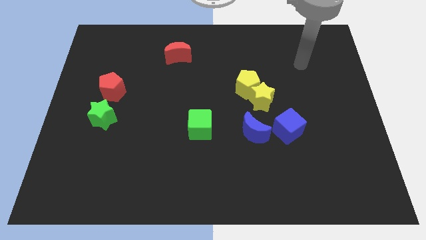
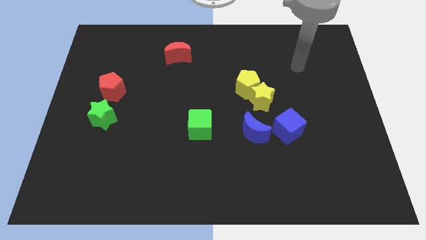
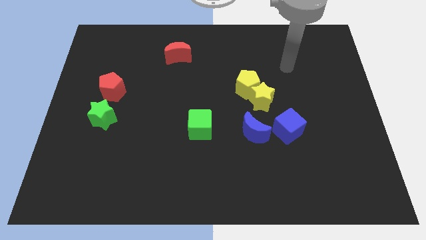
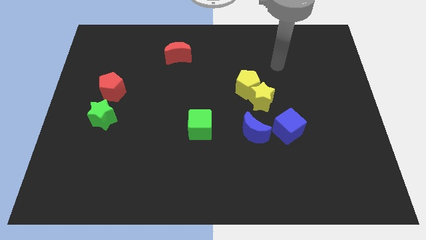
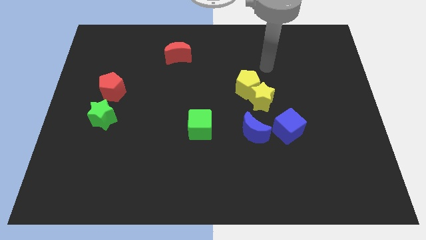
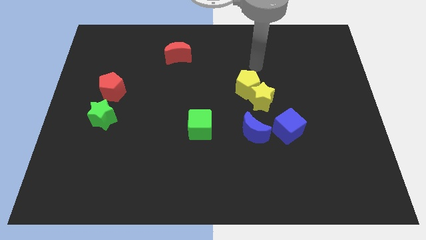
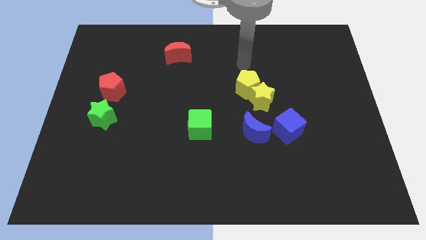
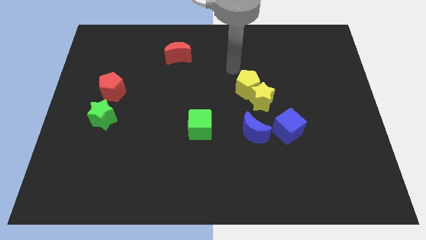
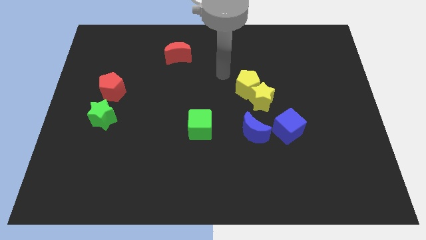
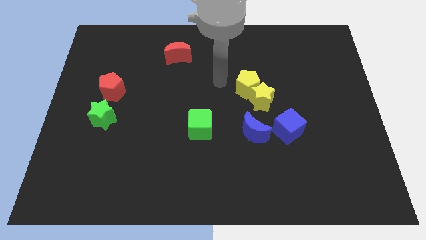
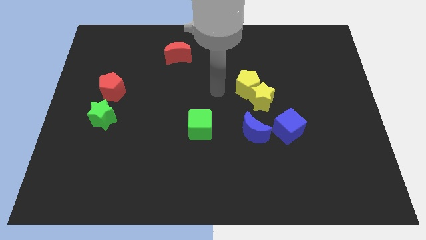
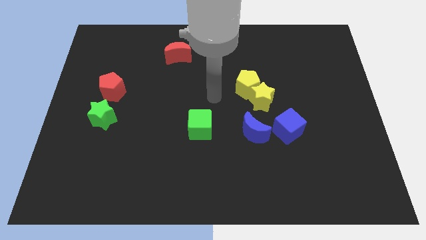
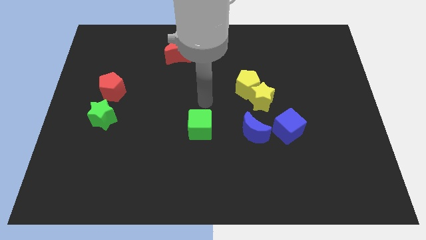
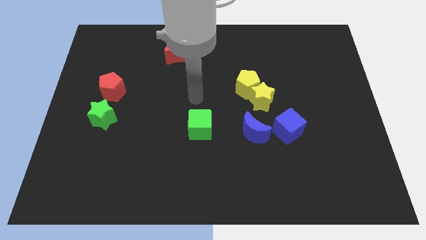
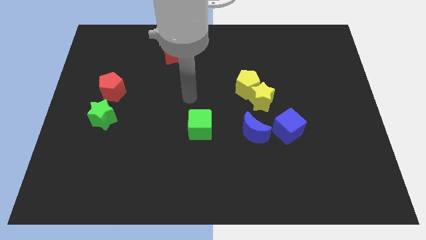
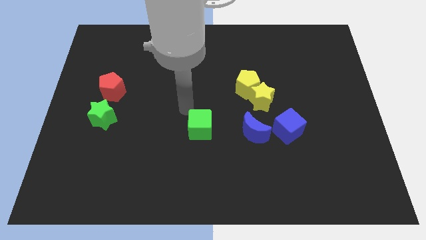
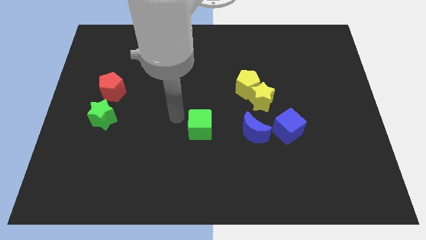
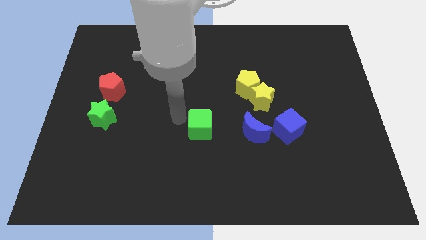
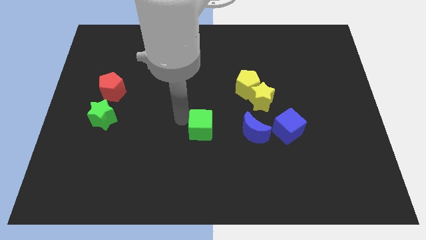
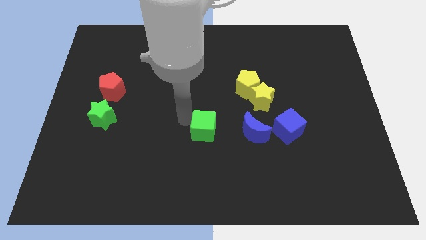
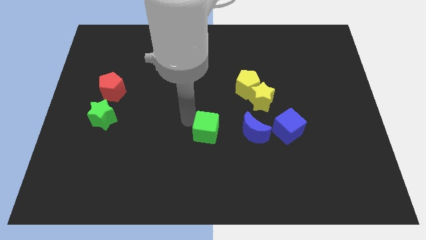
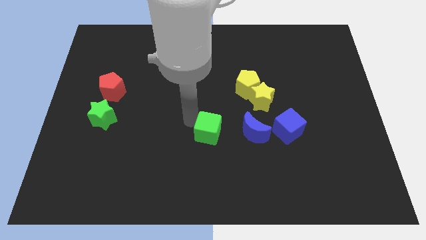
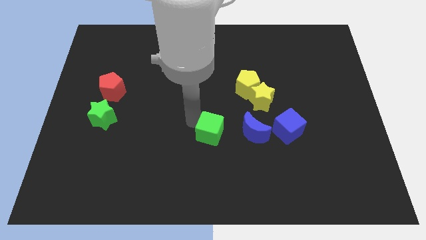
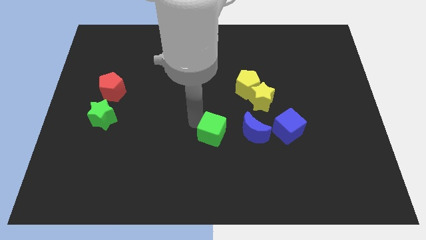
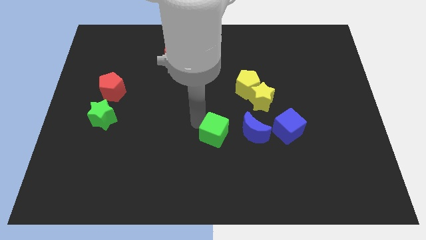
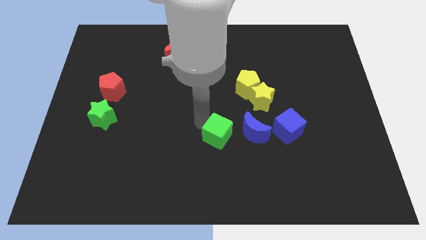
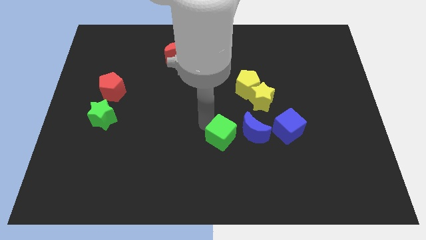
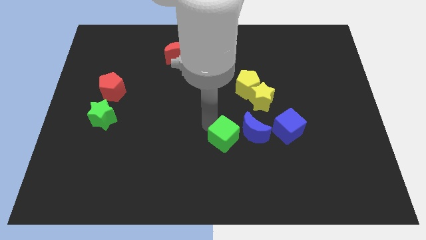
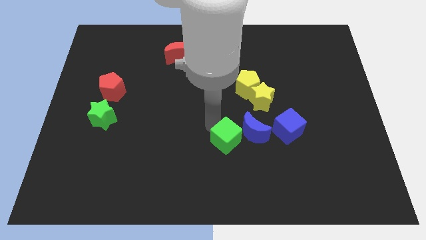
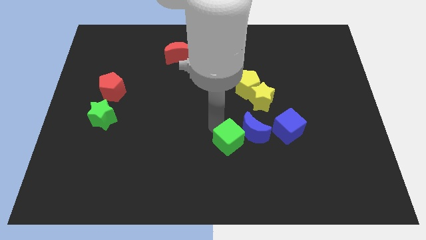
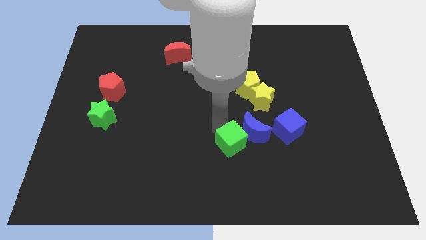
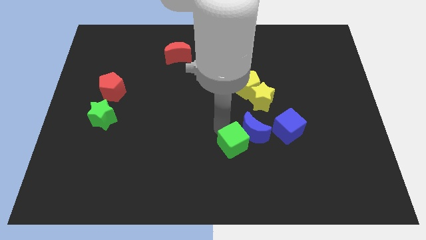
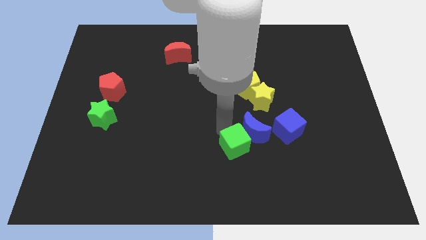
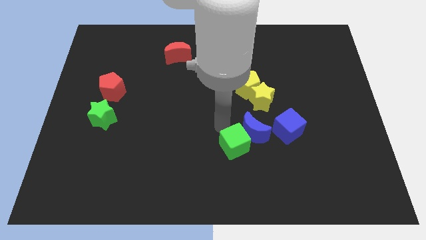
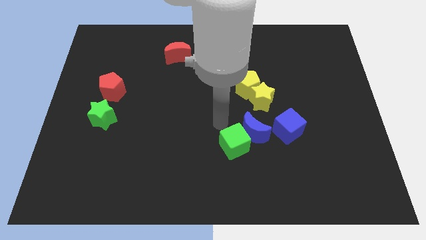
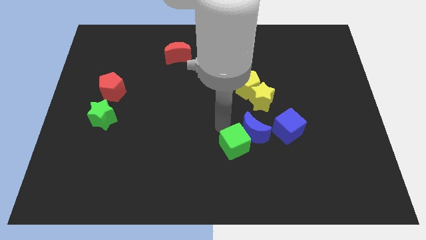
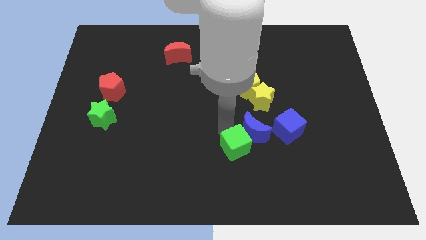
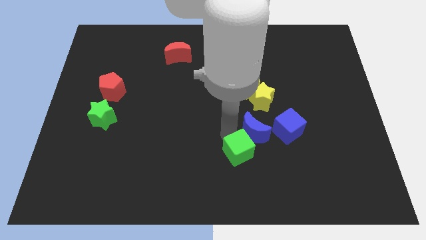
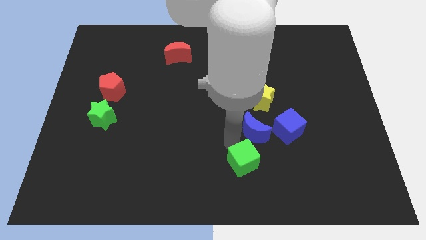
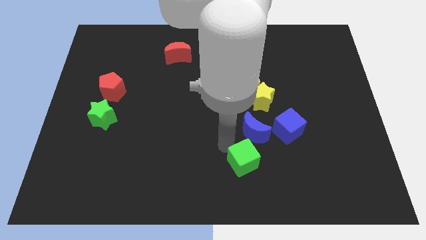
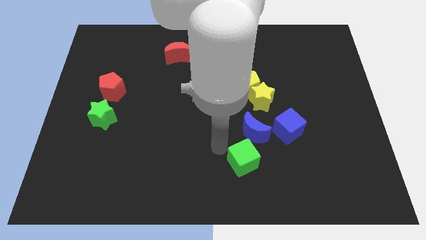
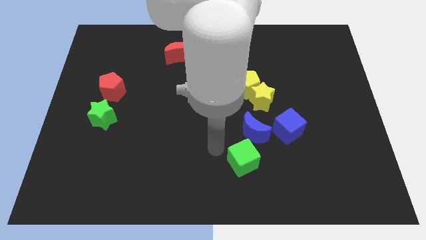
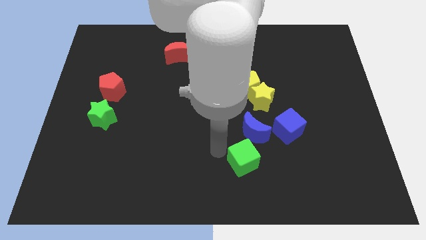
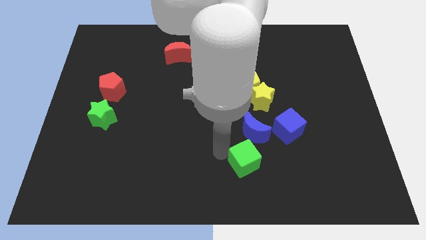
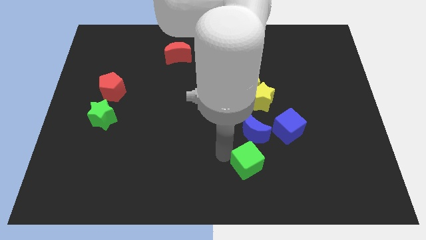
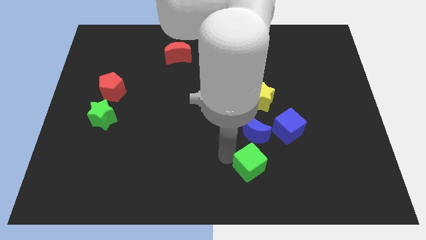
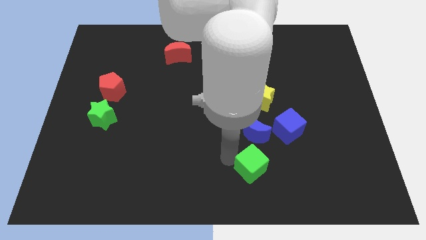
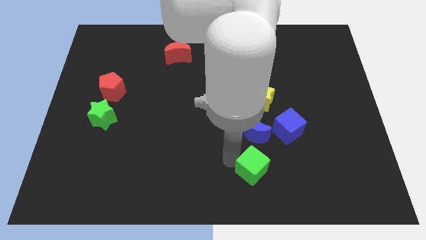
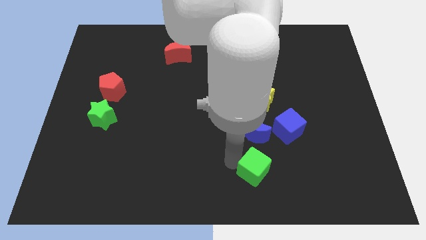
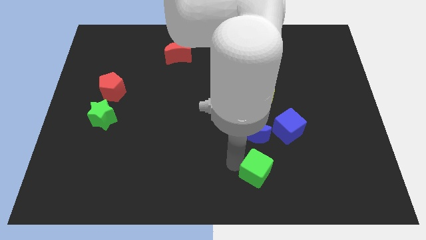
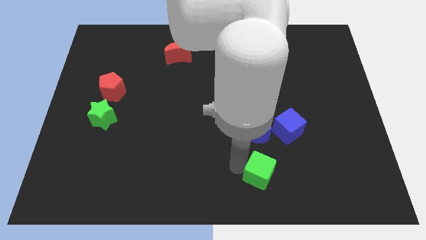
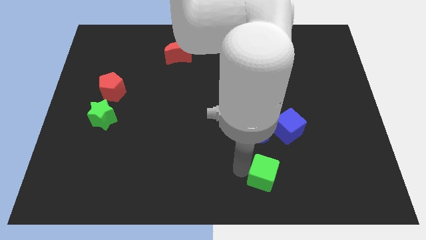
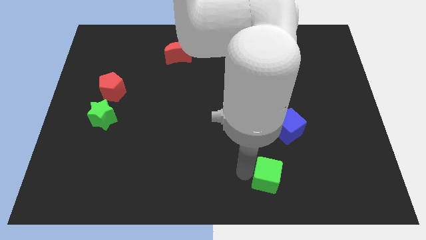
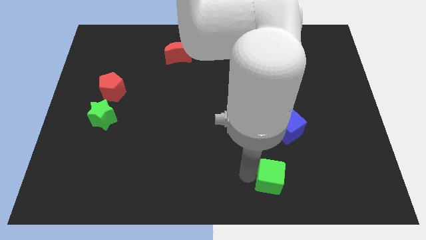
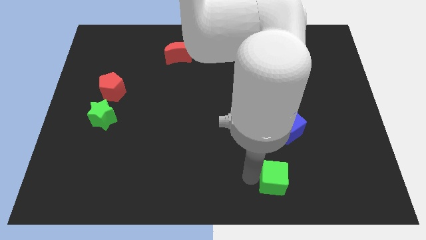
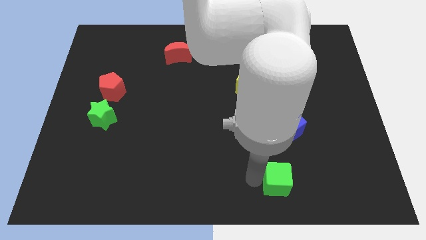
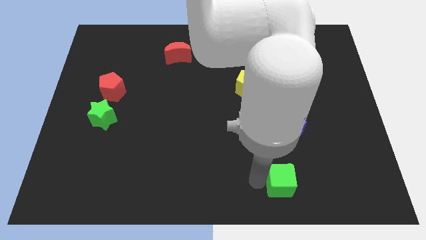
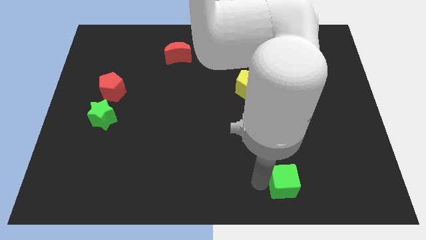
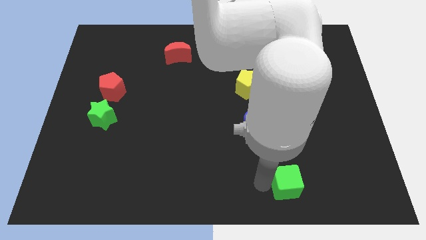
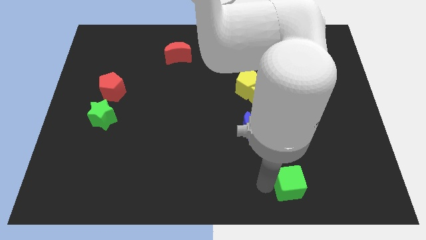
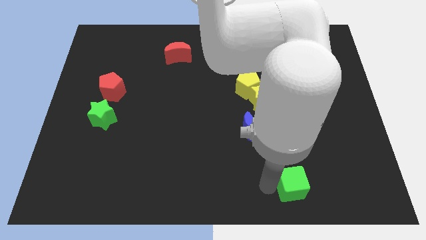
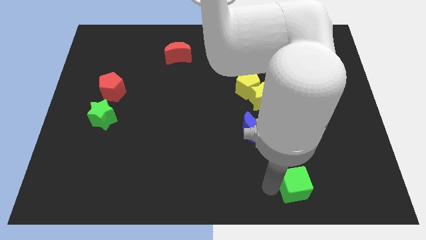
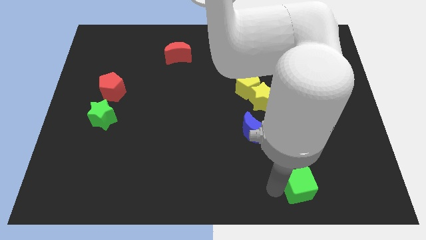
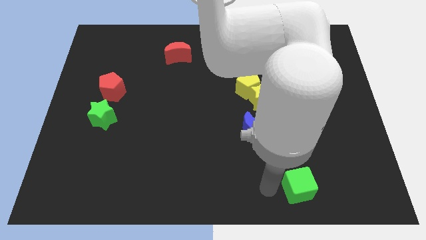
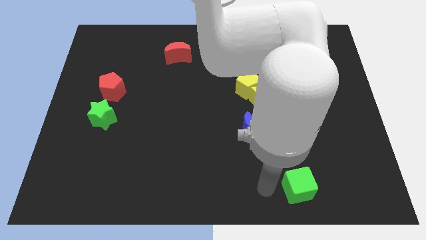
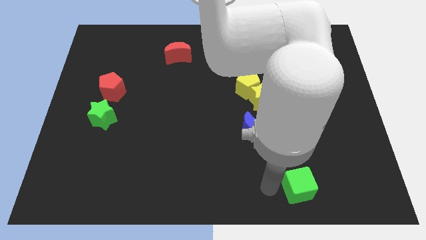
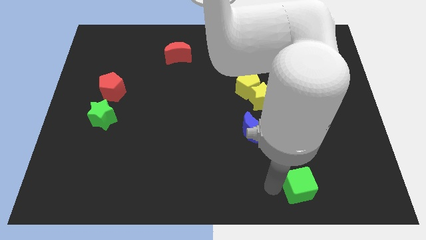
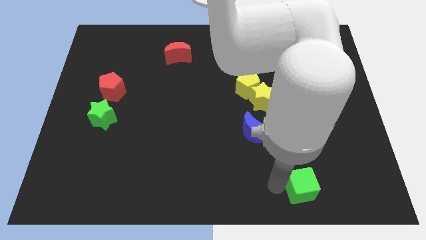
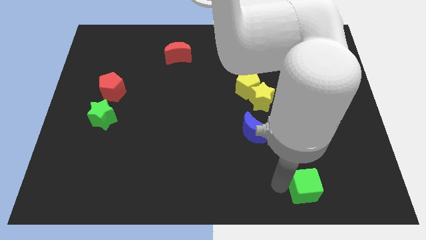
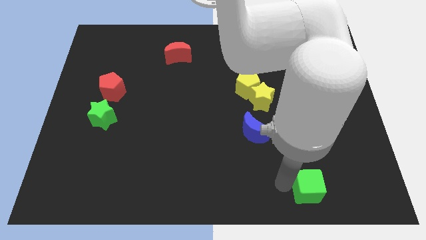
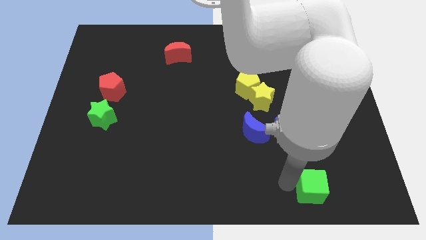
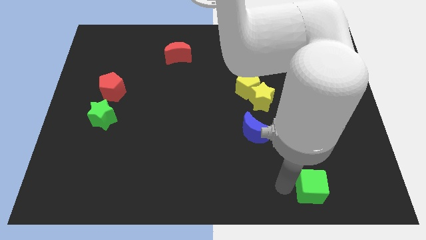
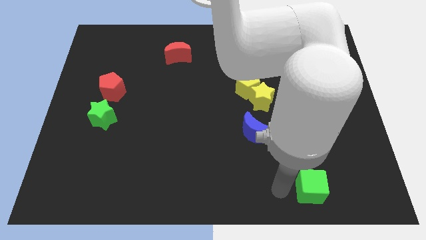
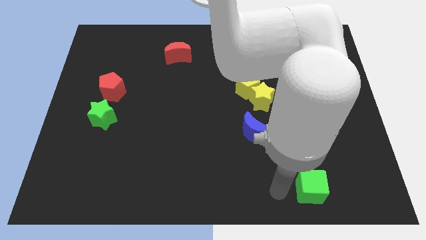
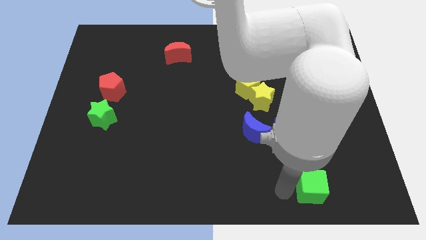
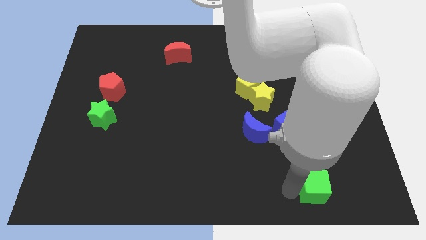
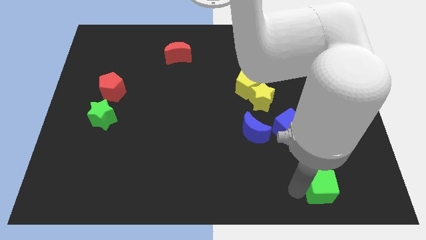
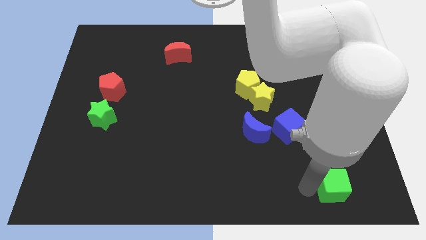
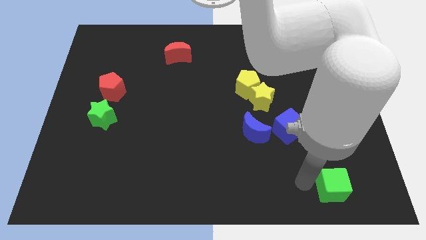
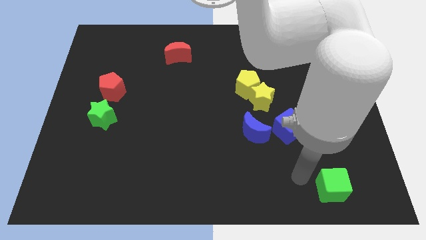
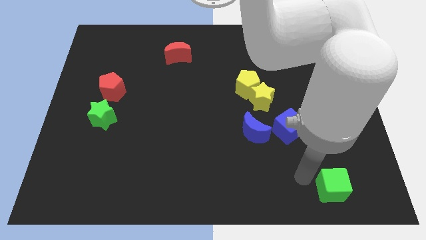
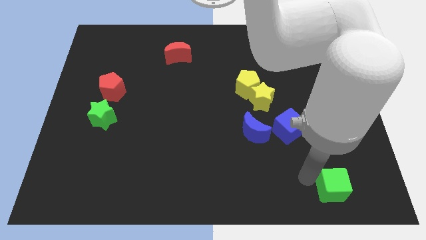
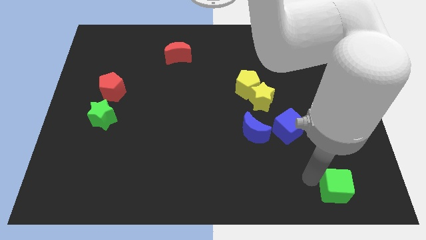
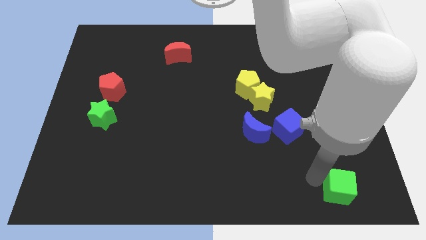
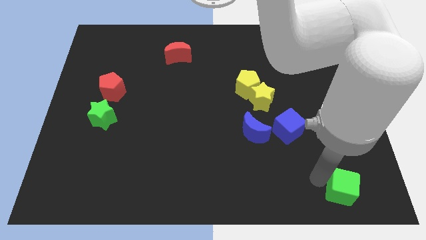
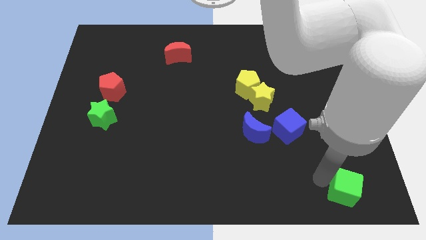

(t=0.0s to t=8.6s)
move the green cube to the bottom right corner

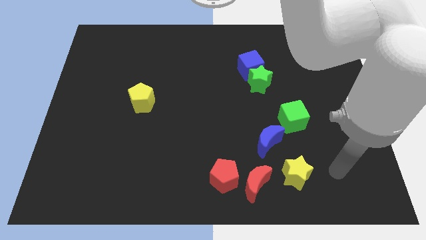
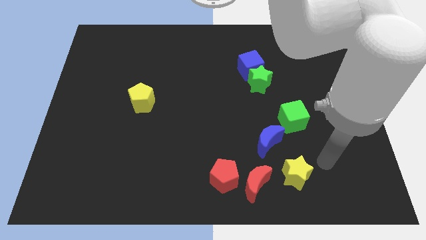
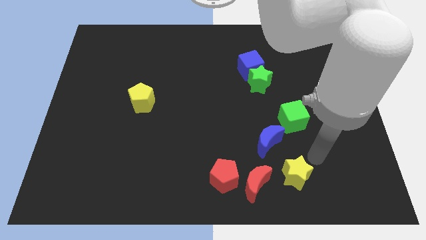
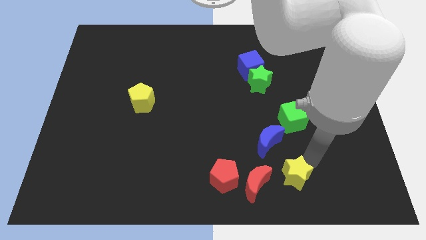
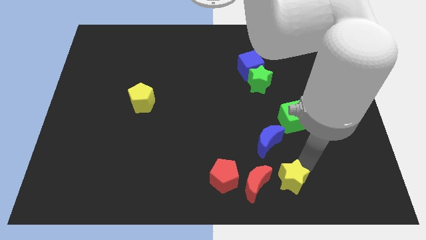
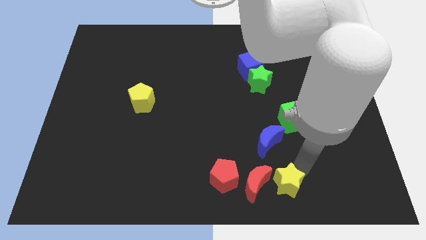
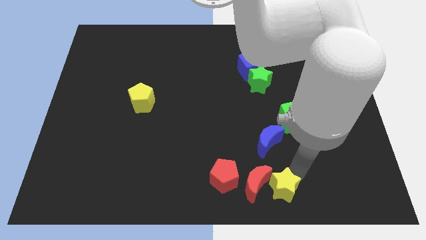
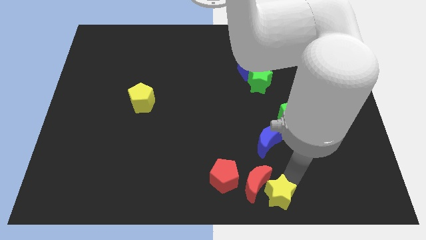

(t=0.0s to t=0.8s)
slide the yellow star to the bottom side
